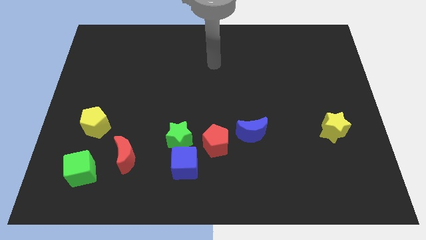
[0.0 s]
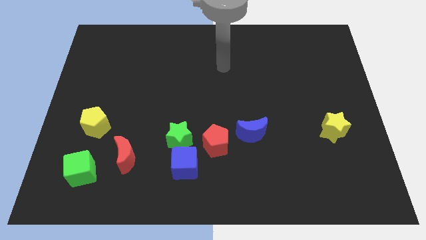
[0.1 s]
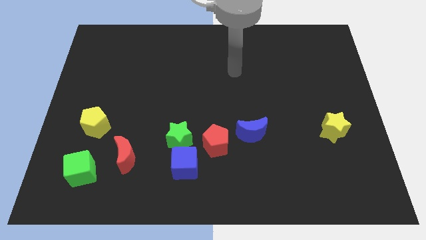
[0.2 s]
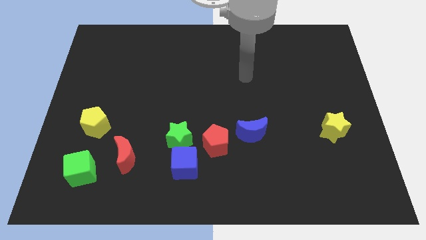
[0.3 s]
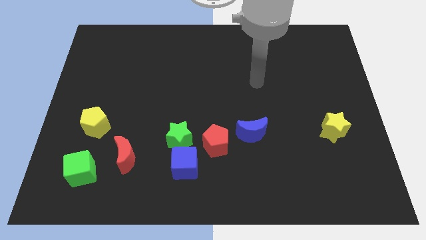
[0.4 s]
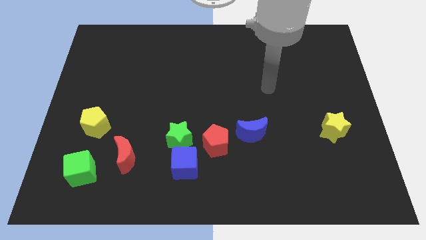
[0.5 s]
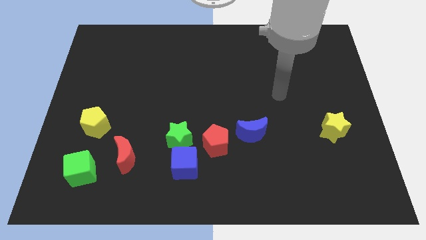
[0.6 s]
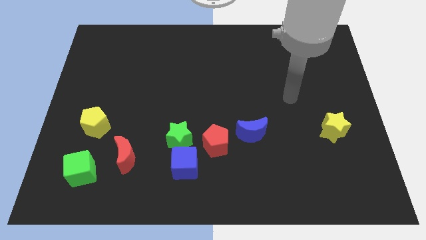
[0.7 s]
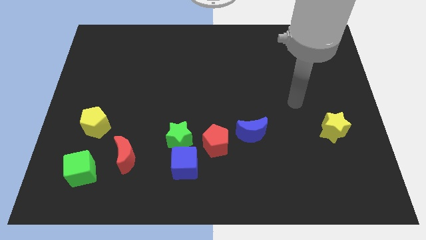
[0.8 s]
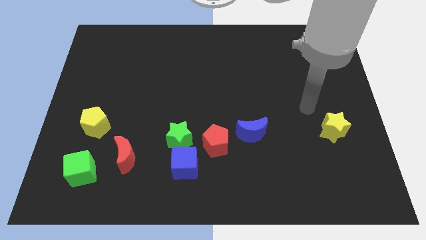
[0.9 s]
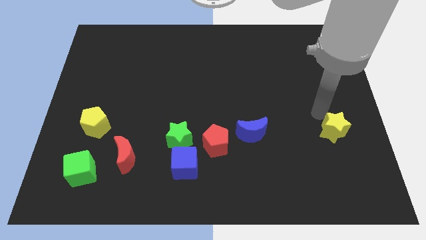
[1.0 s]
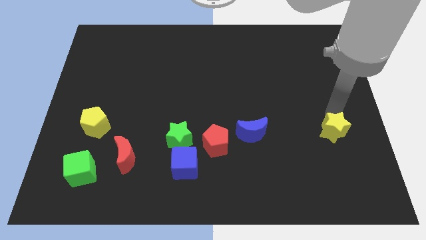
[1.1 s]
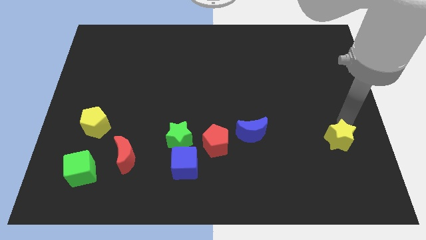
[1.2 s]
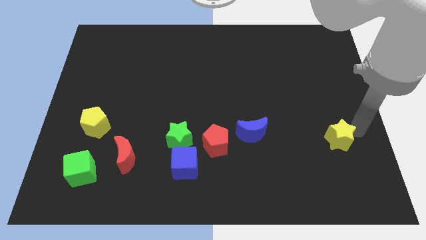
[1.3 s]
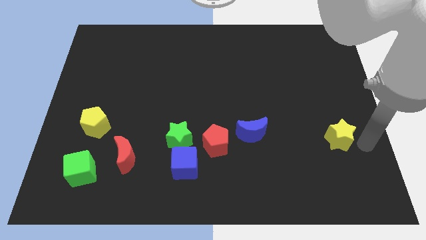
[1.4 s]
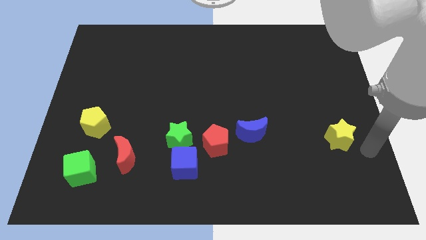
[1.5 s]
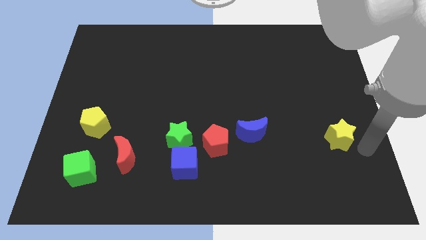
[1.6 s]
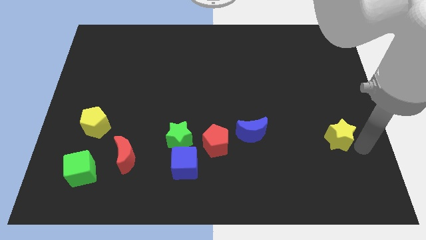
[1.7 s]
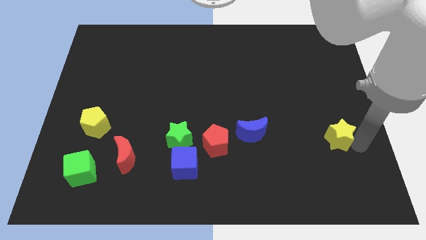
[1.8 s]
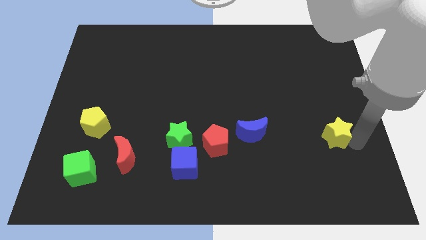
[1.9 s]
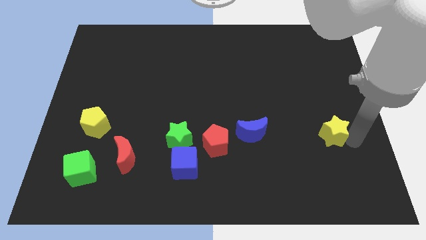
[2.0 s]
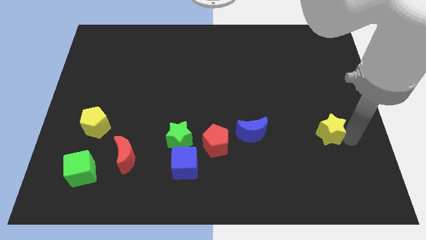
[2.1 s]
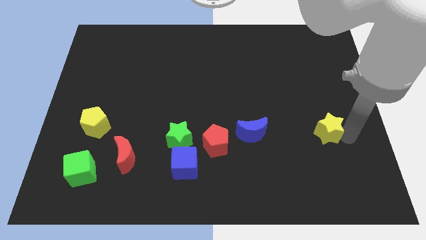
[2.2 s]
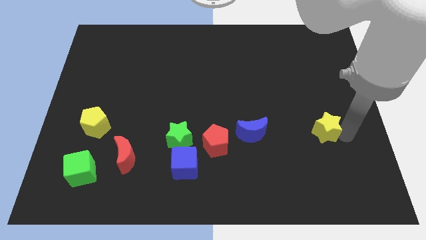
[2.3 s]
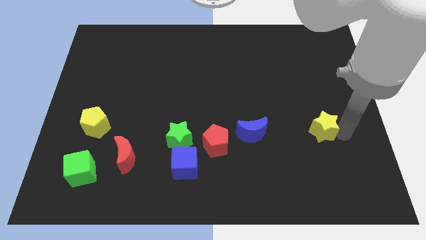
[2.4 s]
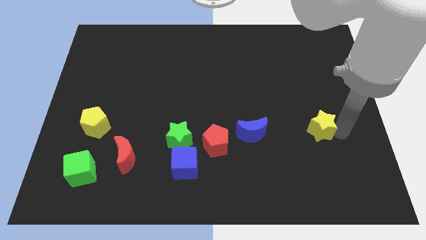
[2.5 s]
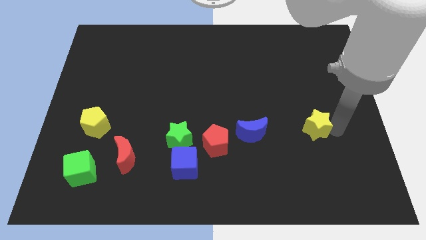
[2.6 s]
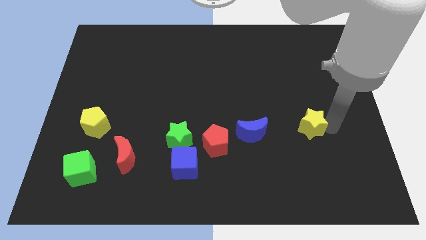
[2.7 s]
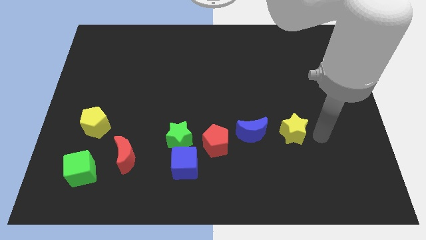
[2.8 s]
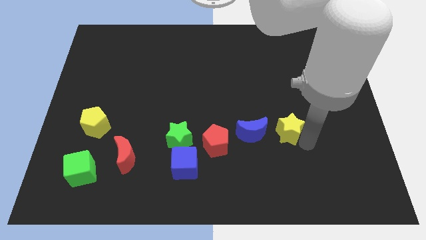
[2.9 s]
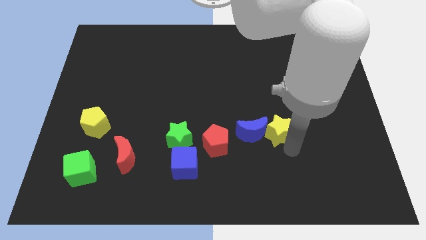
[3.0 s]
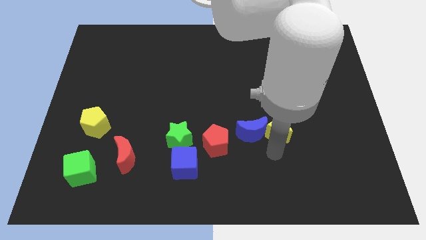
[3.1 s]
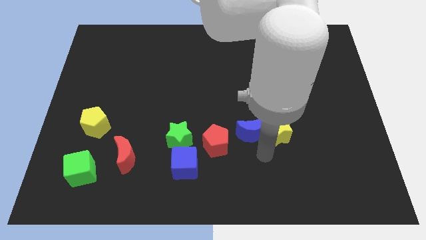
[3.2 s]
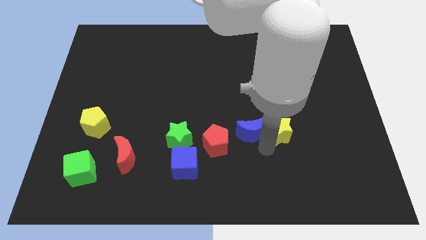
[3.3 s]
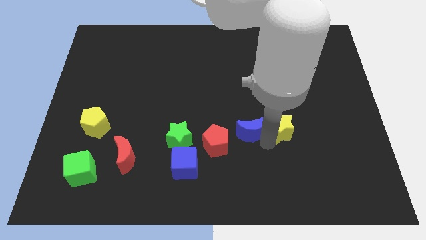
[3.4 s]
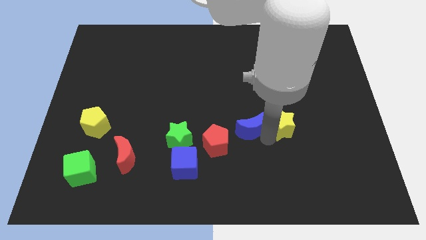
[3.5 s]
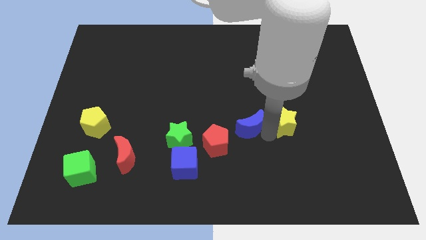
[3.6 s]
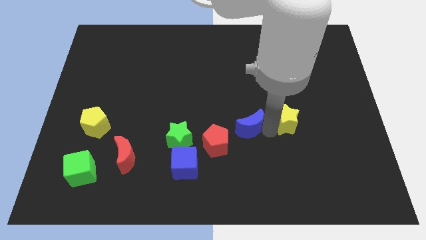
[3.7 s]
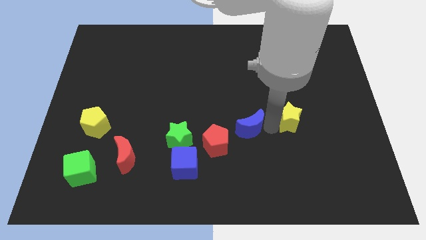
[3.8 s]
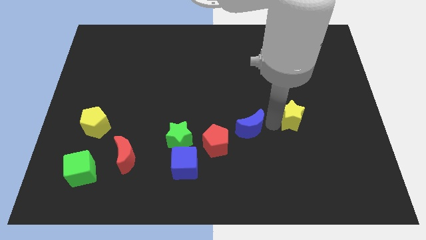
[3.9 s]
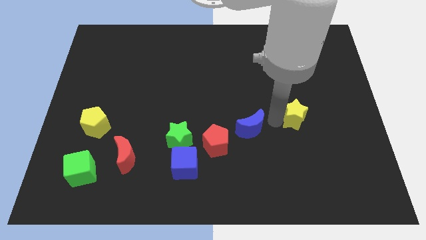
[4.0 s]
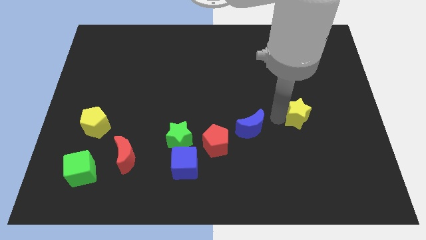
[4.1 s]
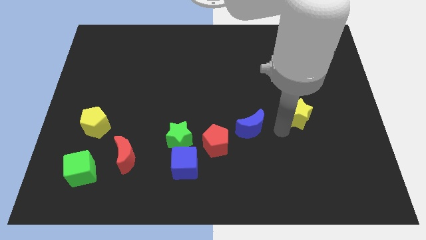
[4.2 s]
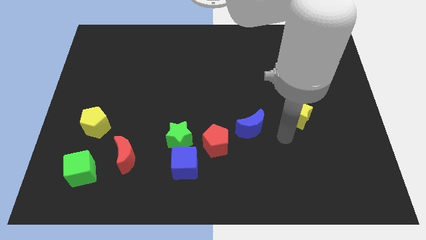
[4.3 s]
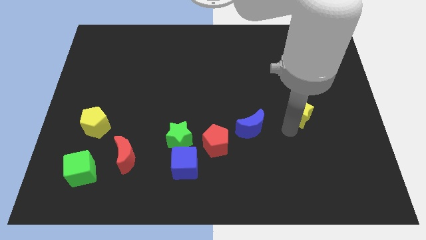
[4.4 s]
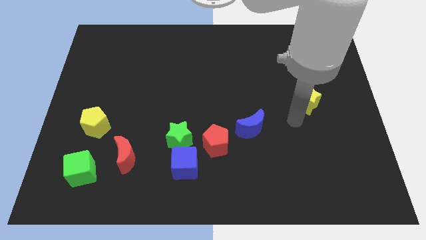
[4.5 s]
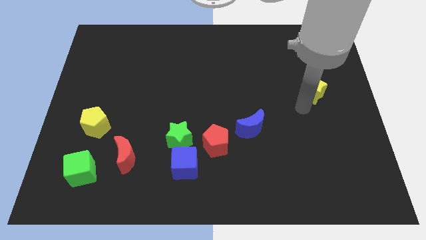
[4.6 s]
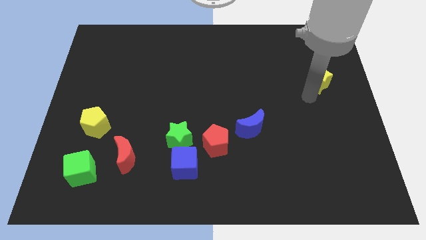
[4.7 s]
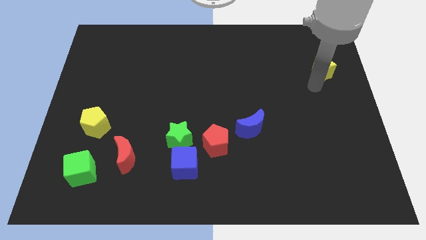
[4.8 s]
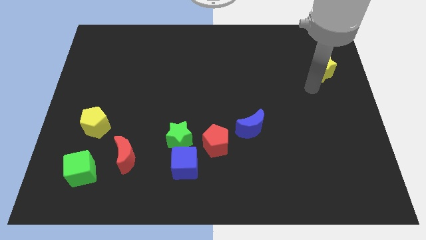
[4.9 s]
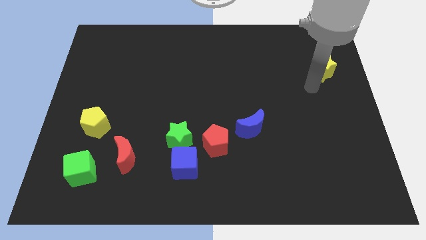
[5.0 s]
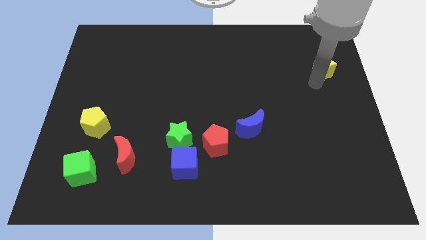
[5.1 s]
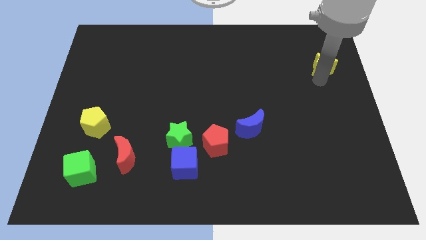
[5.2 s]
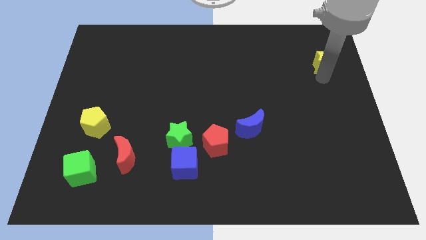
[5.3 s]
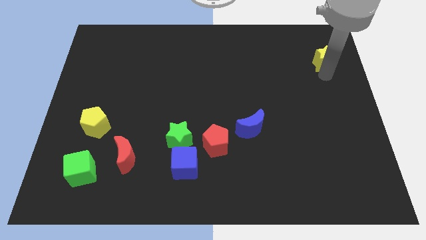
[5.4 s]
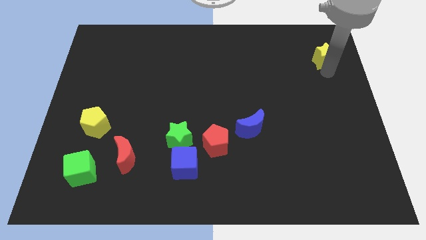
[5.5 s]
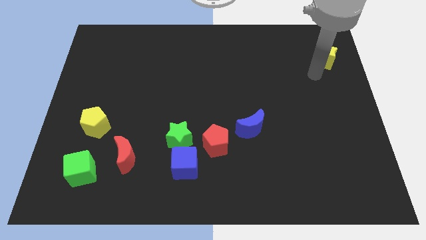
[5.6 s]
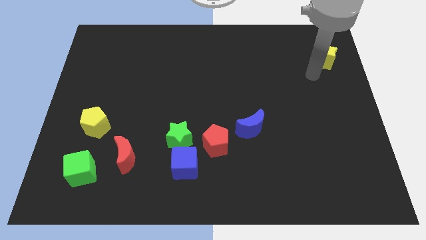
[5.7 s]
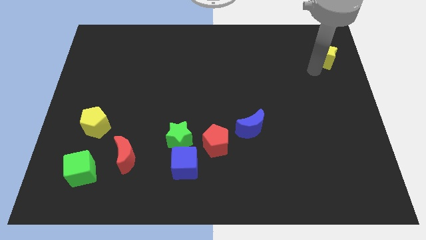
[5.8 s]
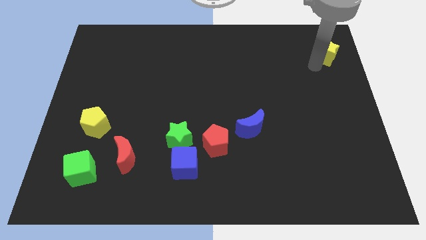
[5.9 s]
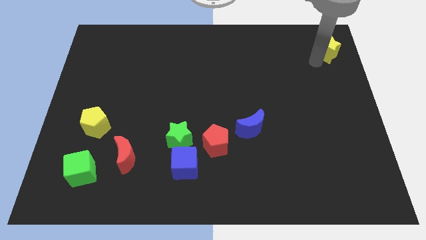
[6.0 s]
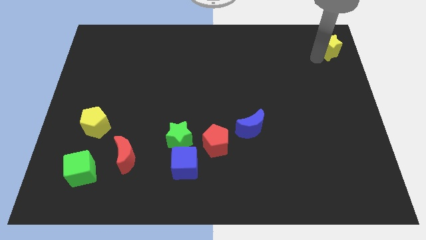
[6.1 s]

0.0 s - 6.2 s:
slide the yellow star to the top right corner

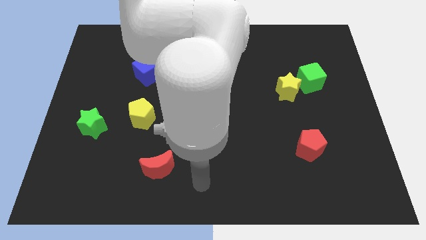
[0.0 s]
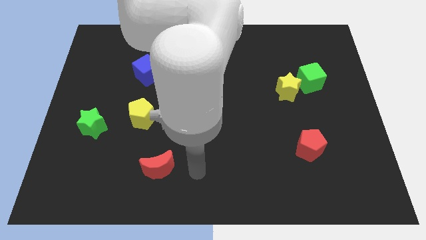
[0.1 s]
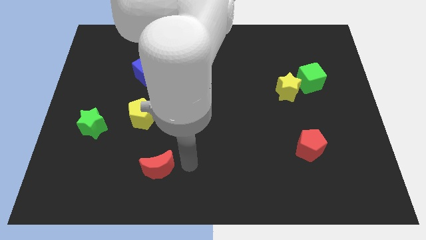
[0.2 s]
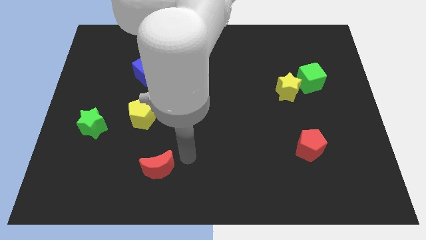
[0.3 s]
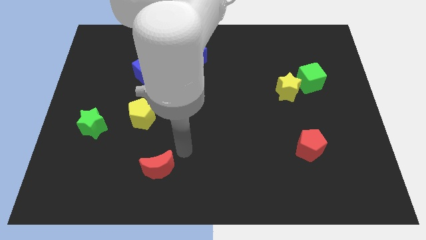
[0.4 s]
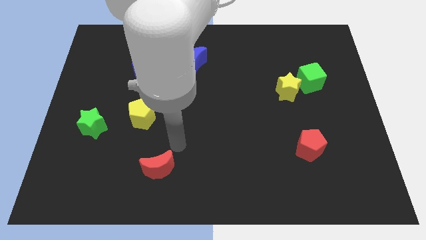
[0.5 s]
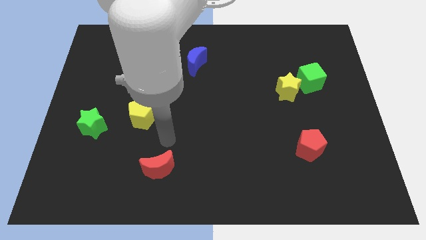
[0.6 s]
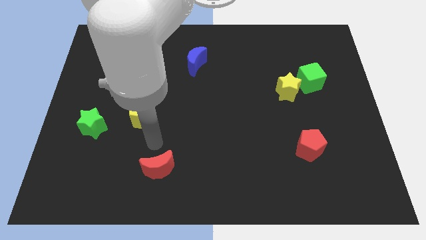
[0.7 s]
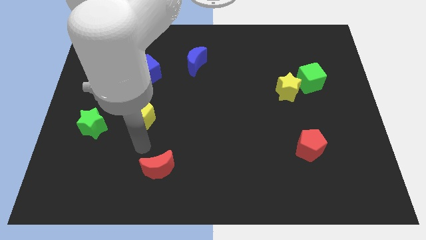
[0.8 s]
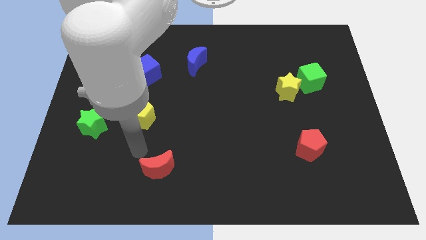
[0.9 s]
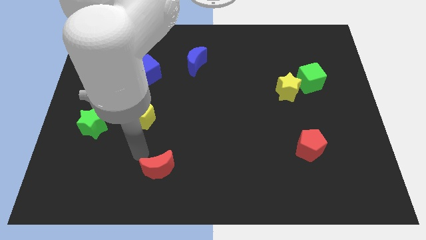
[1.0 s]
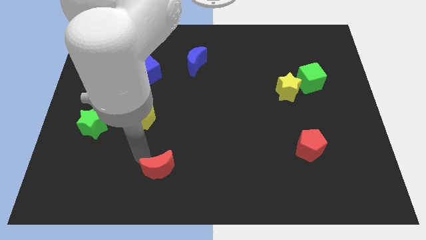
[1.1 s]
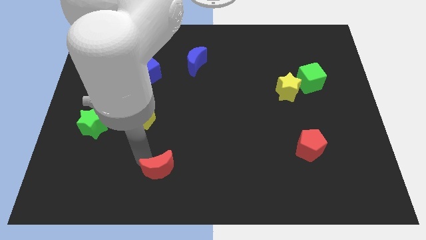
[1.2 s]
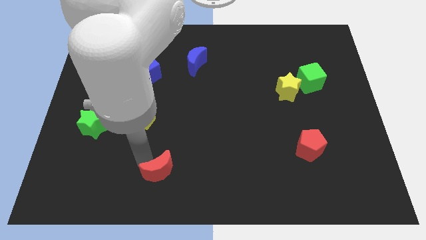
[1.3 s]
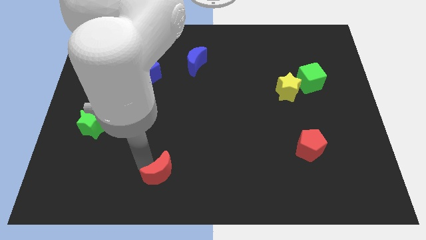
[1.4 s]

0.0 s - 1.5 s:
slide the red moon to the bottom
